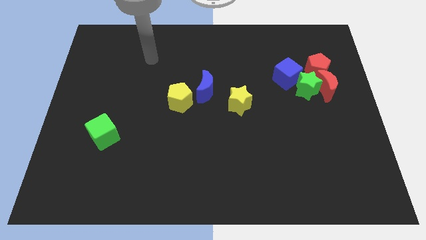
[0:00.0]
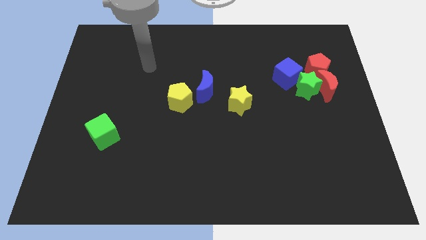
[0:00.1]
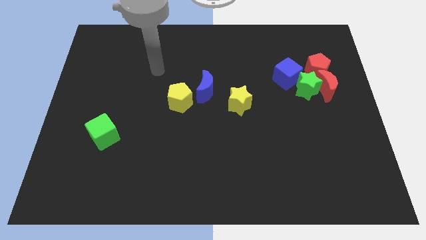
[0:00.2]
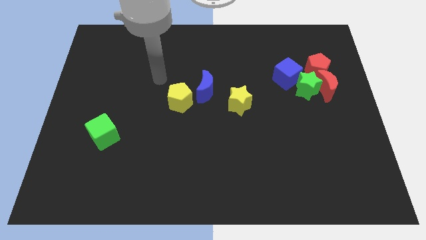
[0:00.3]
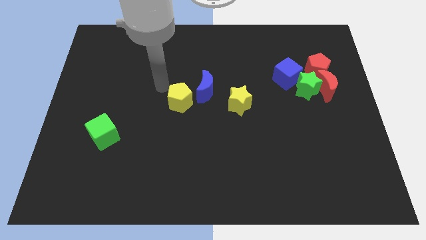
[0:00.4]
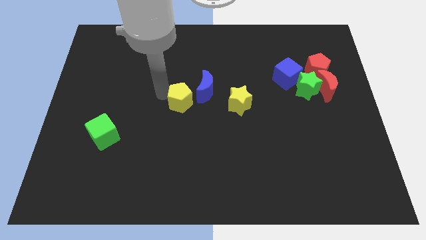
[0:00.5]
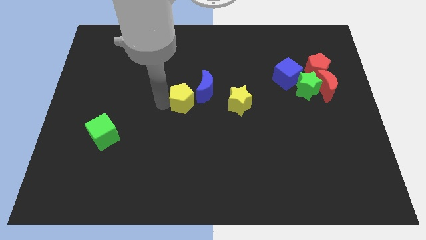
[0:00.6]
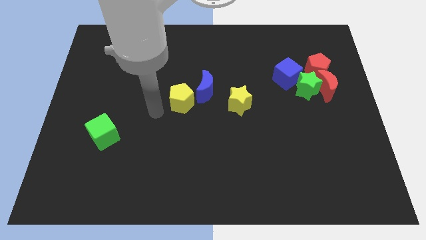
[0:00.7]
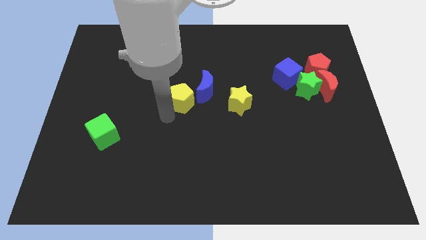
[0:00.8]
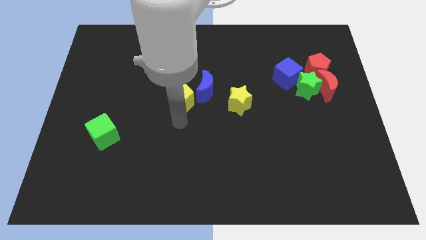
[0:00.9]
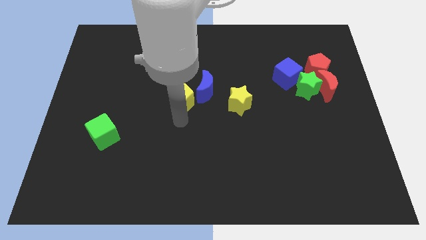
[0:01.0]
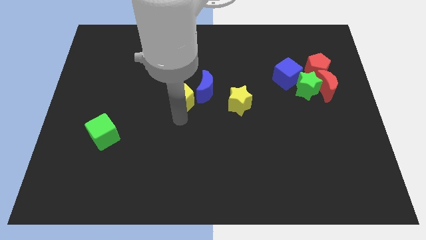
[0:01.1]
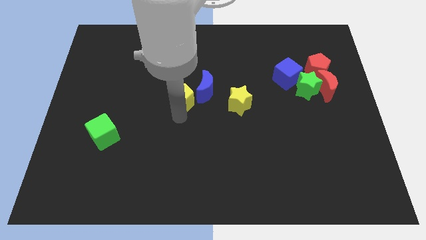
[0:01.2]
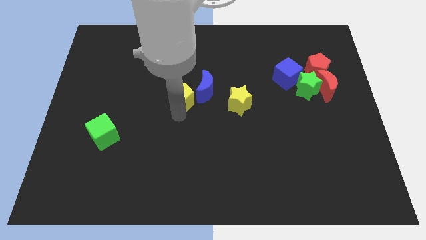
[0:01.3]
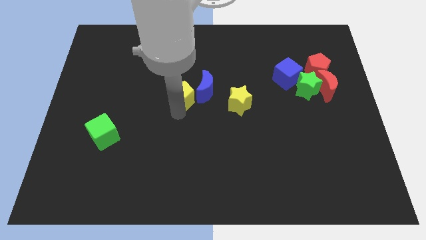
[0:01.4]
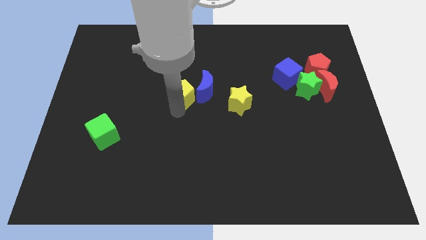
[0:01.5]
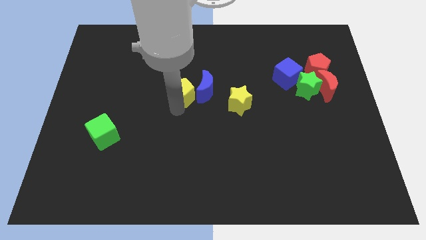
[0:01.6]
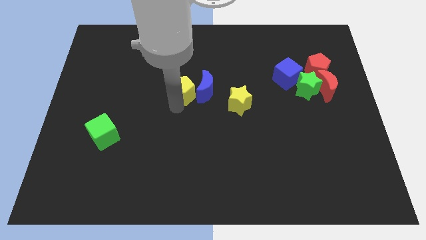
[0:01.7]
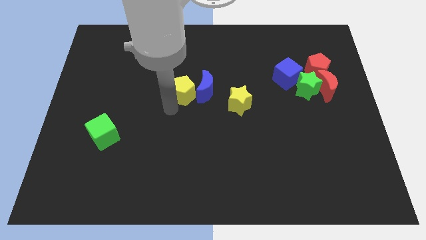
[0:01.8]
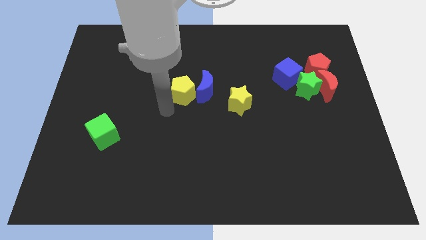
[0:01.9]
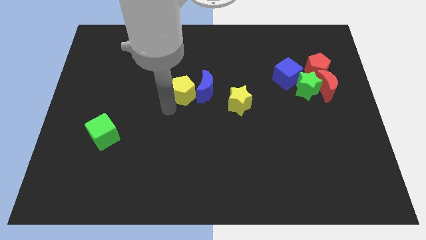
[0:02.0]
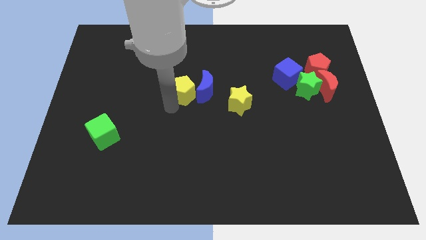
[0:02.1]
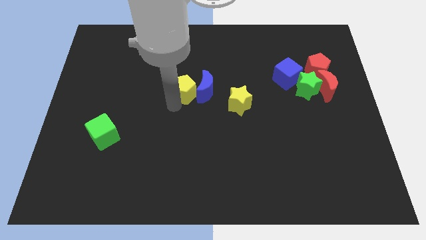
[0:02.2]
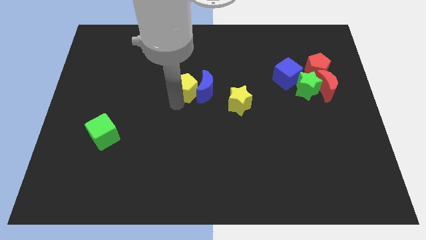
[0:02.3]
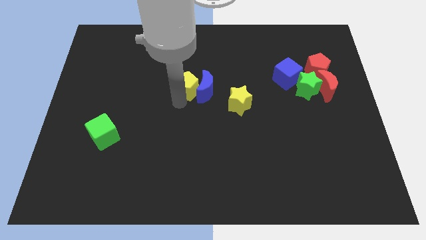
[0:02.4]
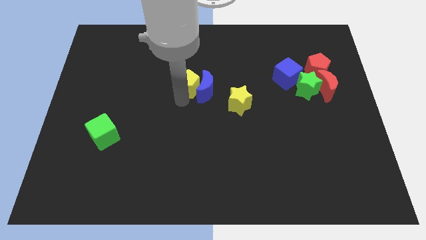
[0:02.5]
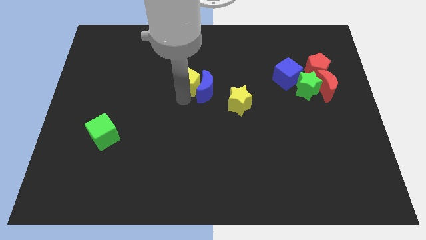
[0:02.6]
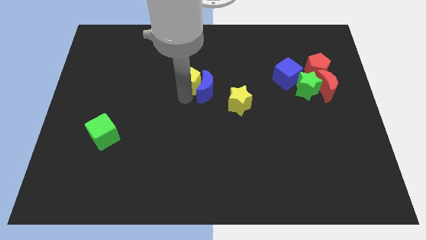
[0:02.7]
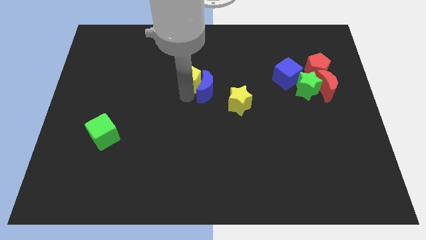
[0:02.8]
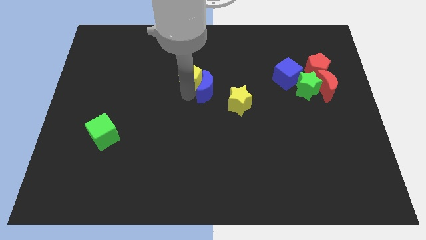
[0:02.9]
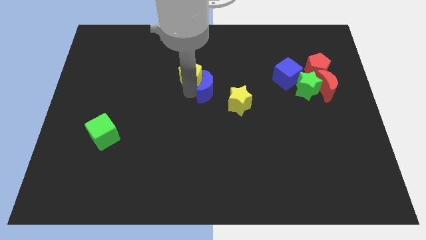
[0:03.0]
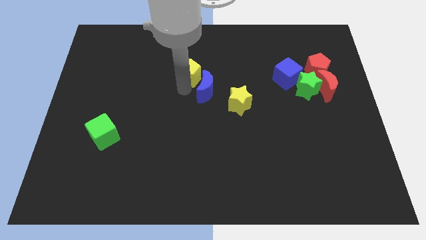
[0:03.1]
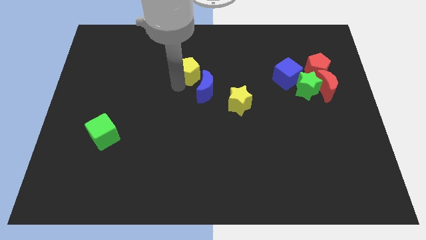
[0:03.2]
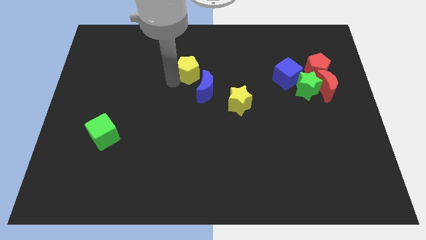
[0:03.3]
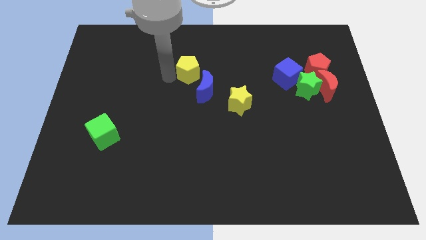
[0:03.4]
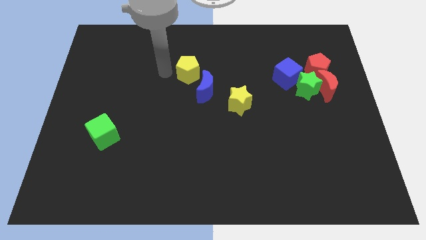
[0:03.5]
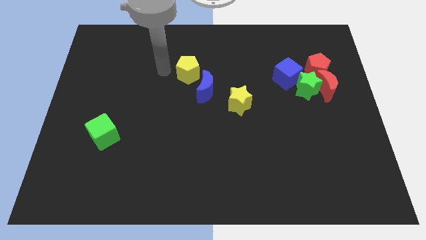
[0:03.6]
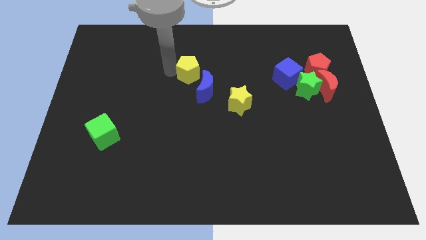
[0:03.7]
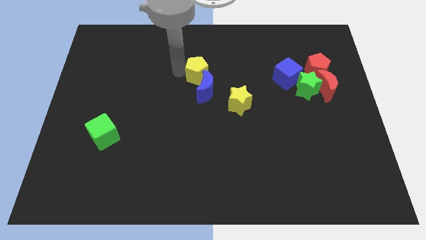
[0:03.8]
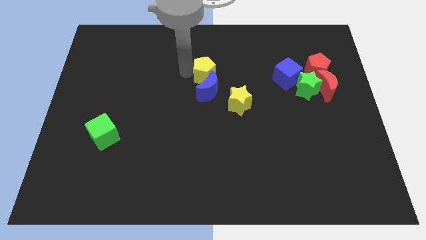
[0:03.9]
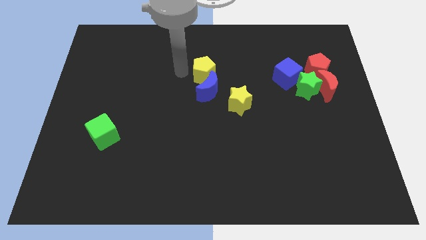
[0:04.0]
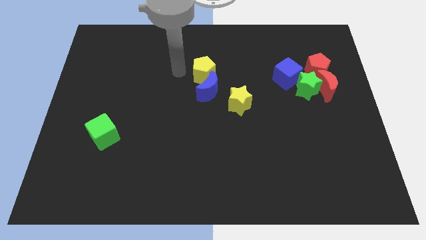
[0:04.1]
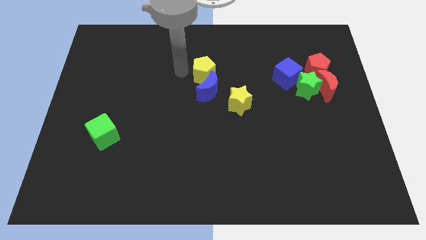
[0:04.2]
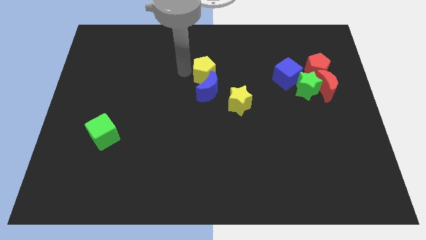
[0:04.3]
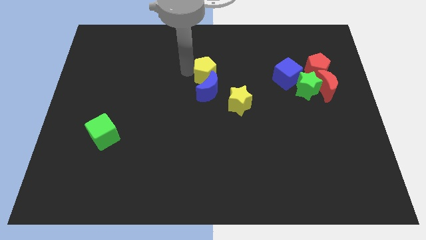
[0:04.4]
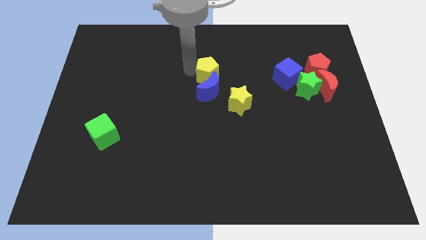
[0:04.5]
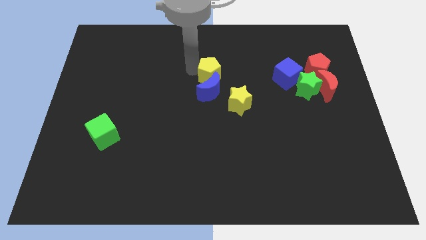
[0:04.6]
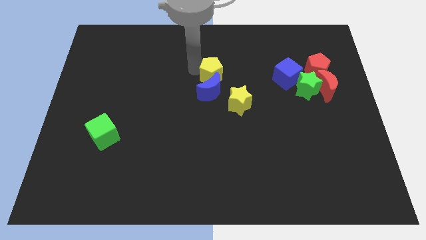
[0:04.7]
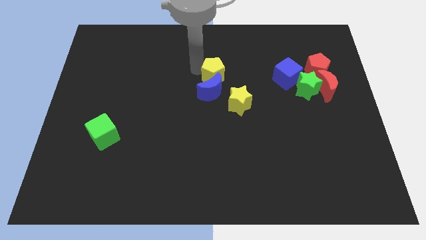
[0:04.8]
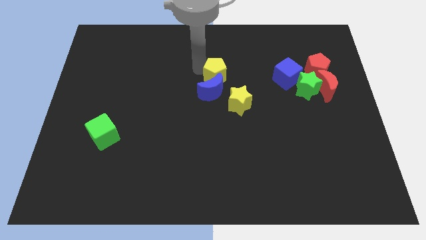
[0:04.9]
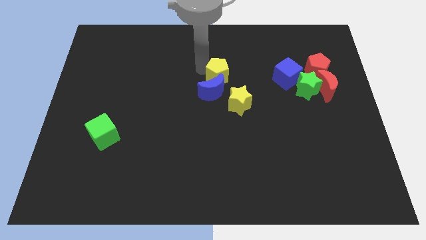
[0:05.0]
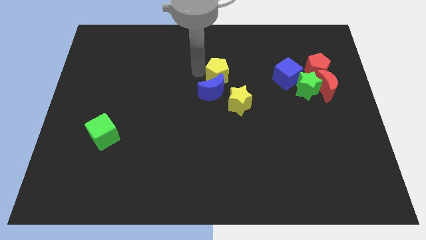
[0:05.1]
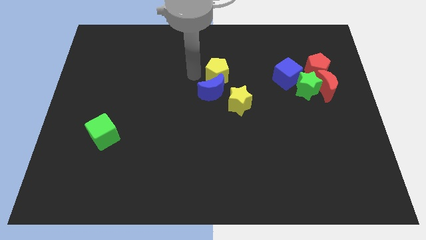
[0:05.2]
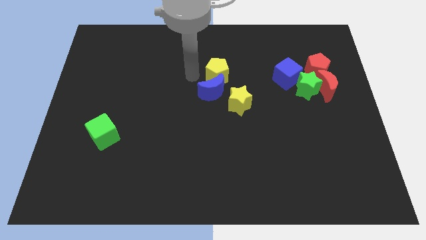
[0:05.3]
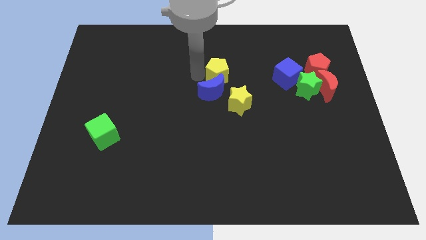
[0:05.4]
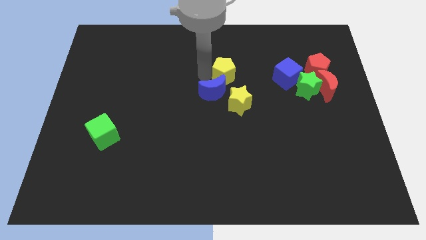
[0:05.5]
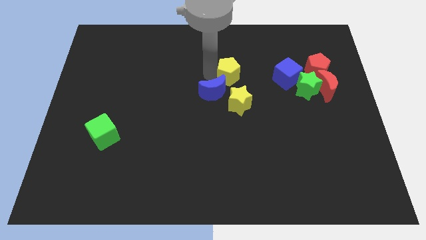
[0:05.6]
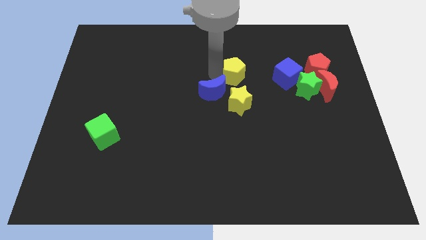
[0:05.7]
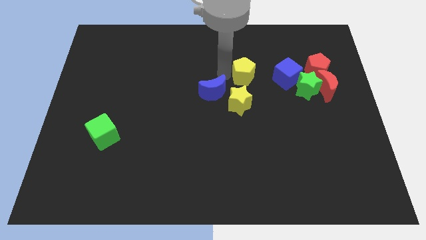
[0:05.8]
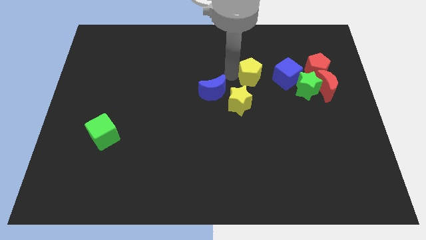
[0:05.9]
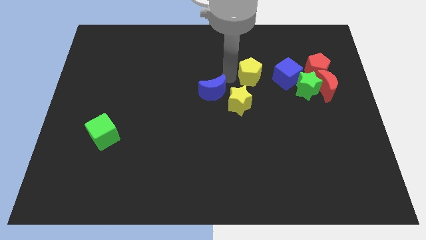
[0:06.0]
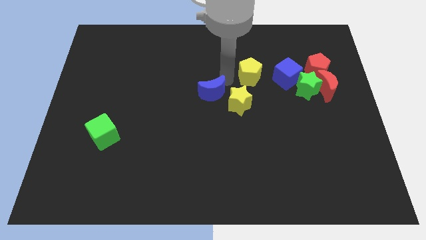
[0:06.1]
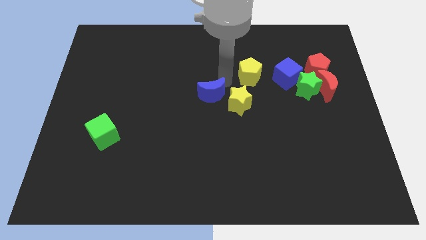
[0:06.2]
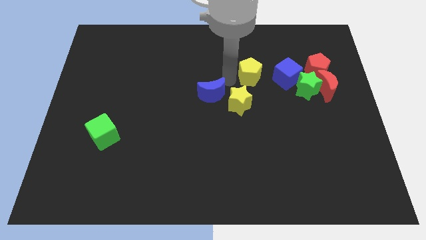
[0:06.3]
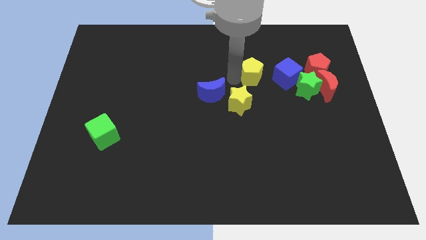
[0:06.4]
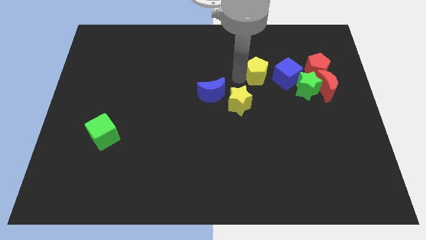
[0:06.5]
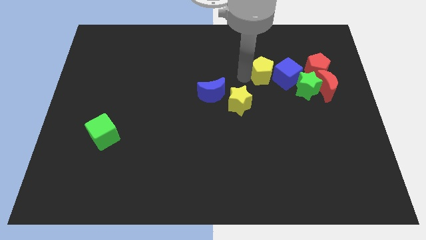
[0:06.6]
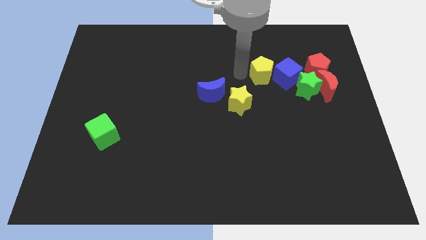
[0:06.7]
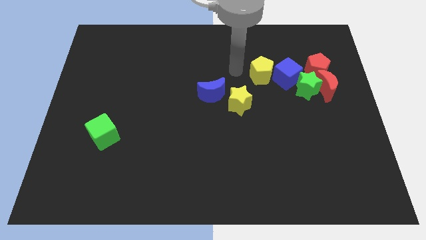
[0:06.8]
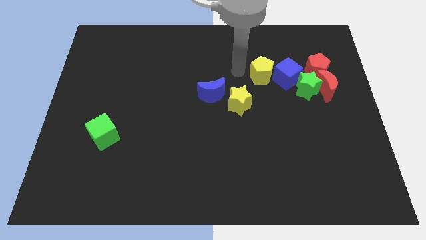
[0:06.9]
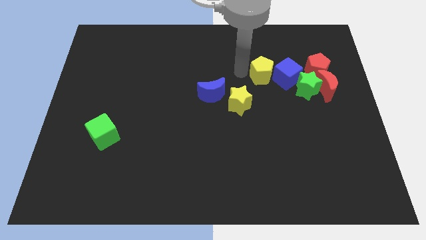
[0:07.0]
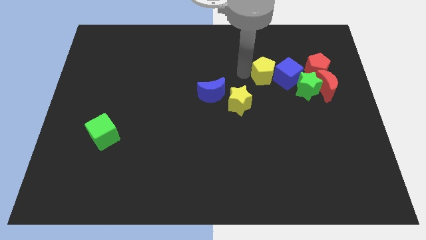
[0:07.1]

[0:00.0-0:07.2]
put the yellow pentagon towards the blue cube

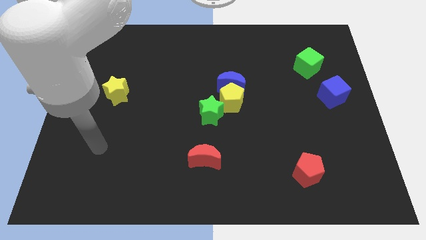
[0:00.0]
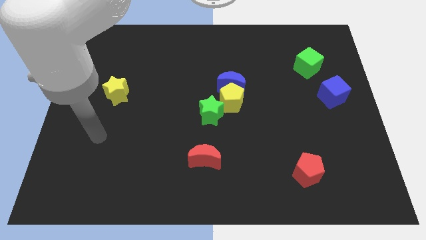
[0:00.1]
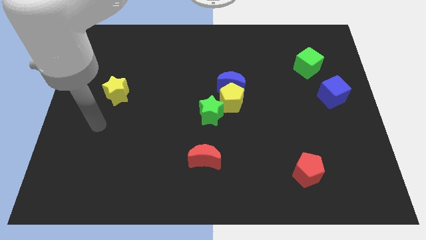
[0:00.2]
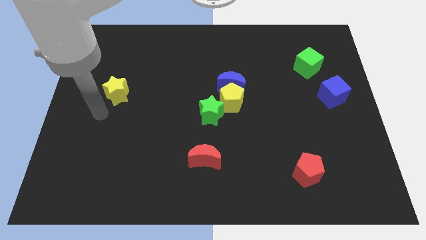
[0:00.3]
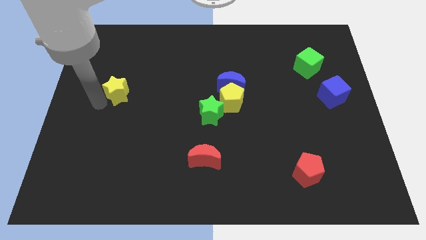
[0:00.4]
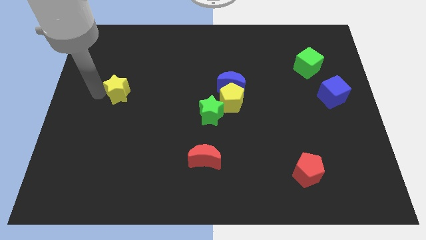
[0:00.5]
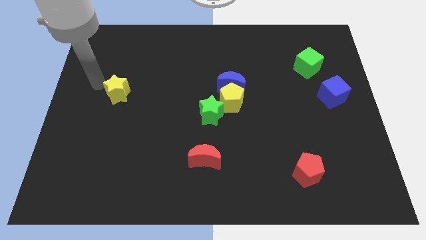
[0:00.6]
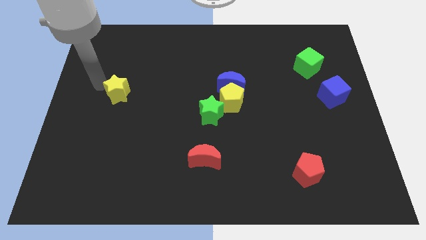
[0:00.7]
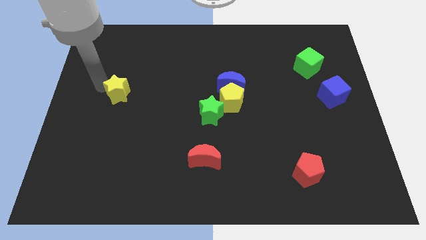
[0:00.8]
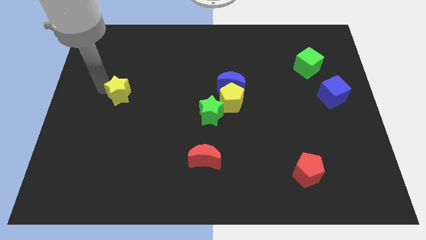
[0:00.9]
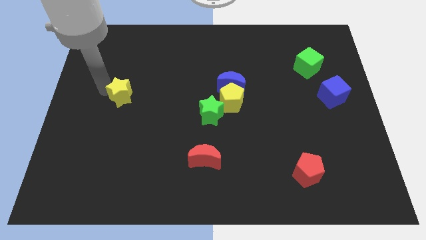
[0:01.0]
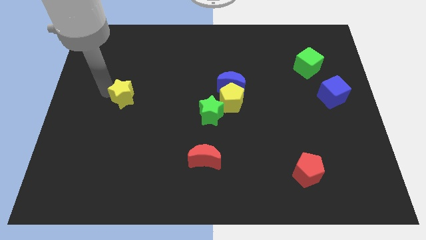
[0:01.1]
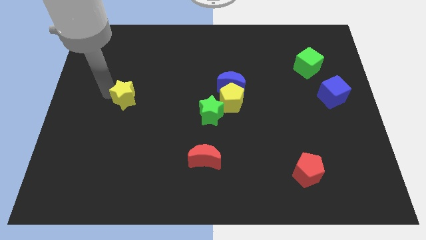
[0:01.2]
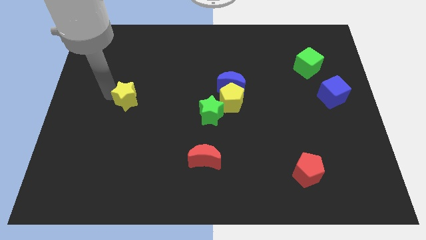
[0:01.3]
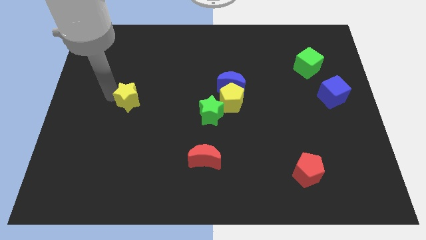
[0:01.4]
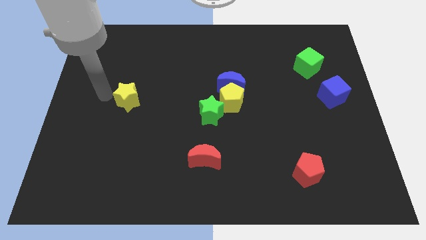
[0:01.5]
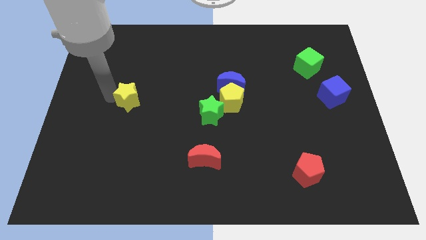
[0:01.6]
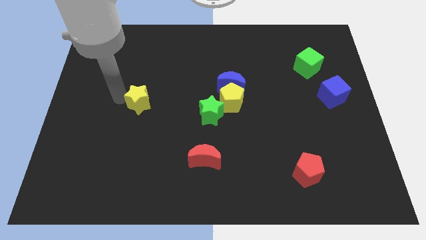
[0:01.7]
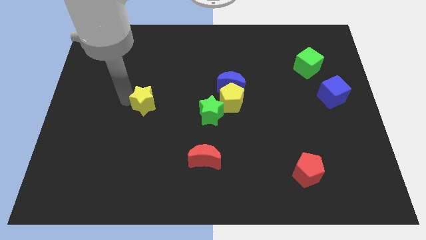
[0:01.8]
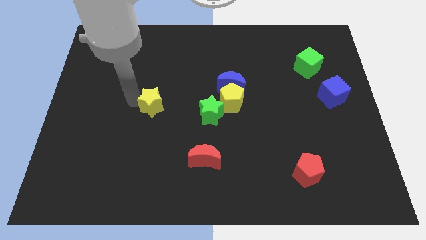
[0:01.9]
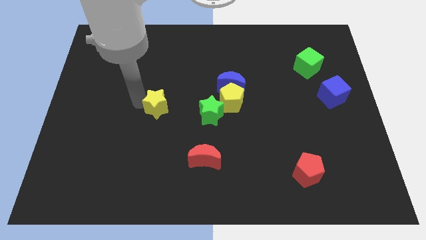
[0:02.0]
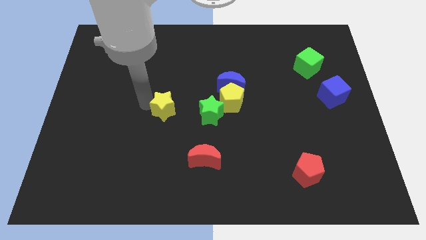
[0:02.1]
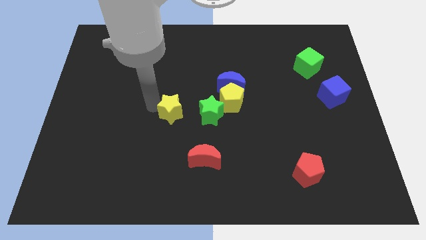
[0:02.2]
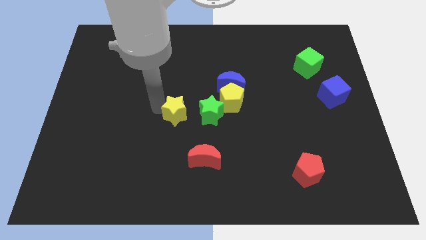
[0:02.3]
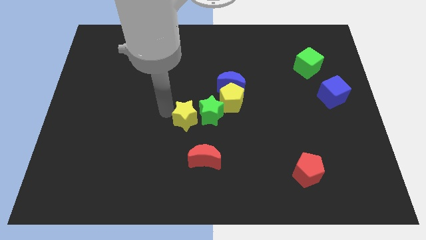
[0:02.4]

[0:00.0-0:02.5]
slide the yellow star close to the green star
